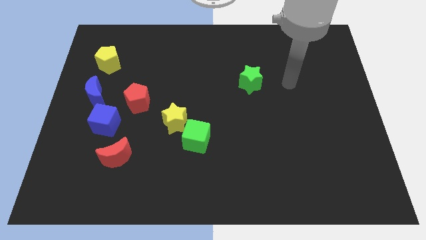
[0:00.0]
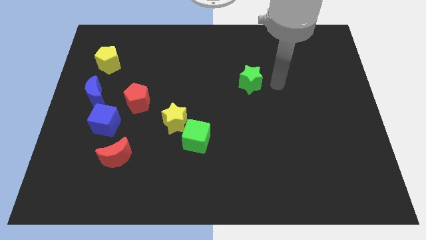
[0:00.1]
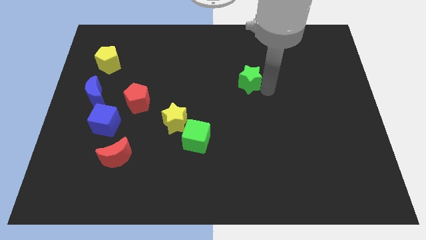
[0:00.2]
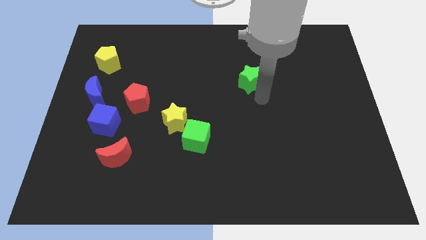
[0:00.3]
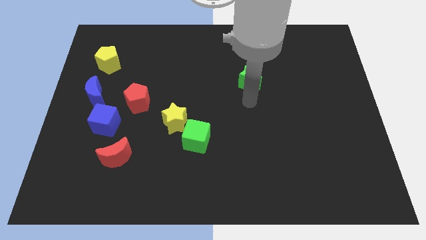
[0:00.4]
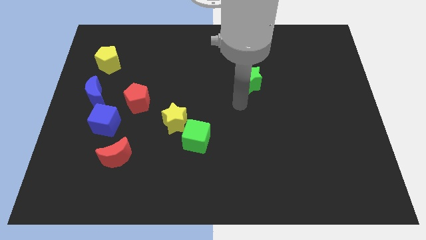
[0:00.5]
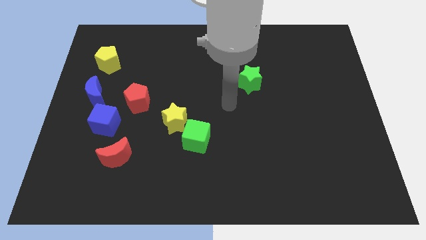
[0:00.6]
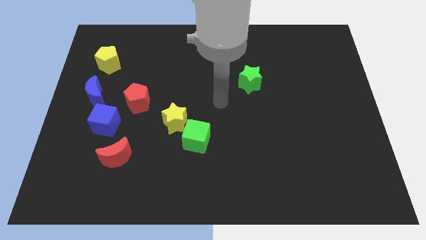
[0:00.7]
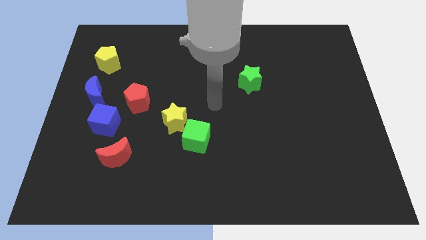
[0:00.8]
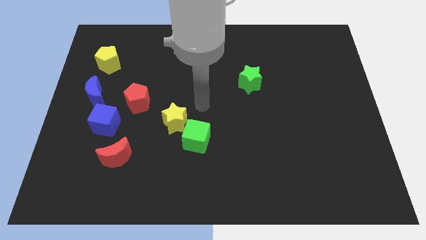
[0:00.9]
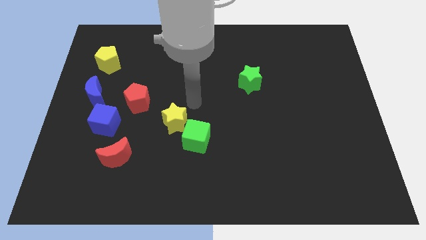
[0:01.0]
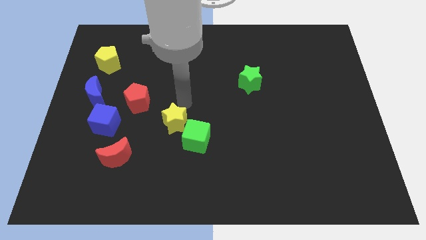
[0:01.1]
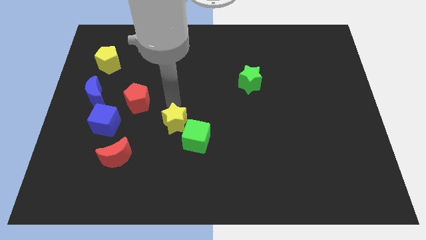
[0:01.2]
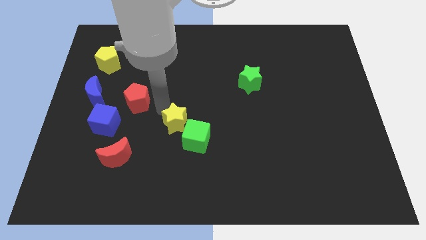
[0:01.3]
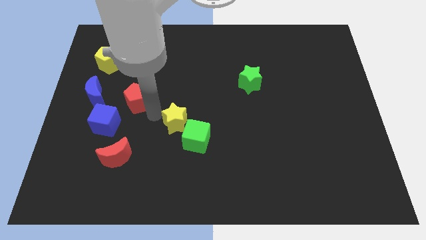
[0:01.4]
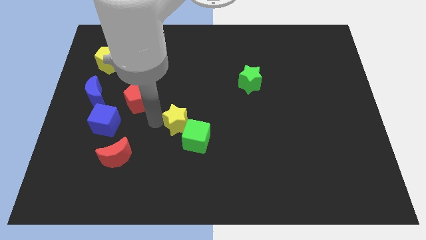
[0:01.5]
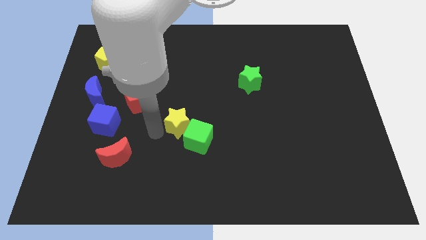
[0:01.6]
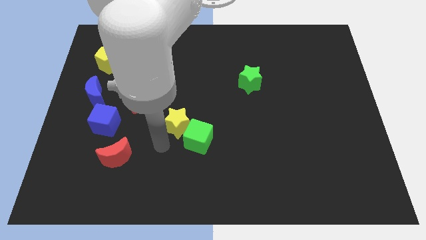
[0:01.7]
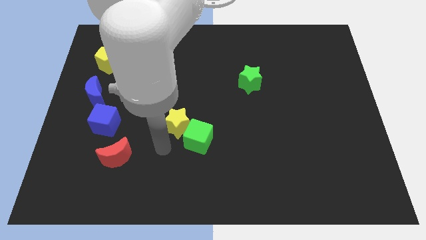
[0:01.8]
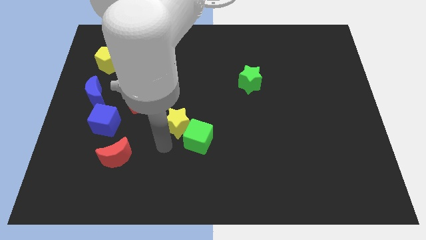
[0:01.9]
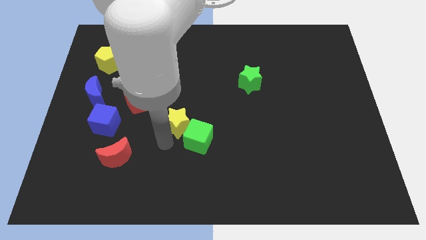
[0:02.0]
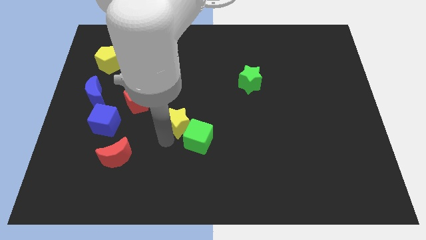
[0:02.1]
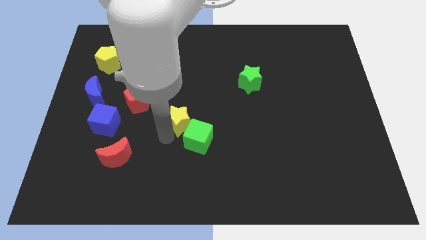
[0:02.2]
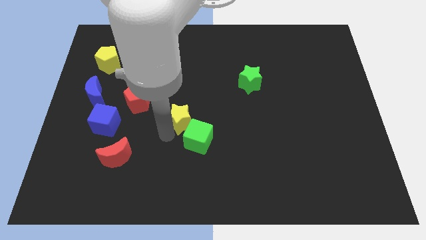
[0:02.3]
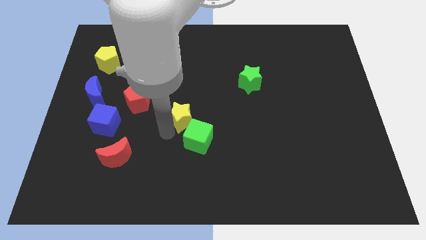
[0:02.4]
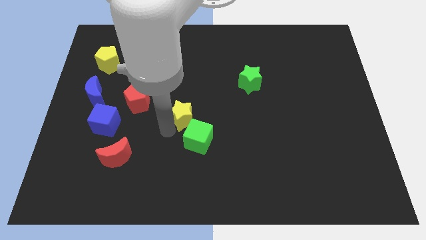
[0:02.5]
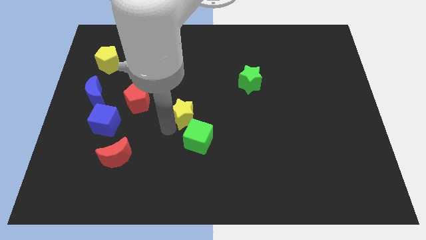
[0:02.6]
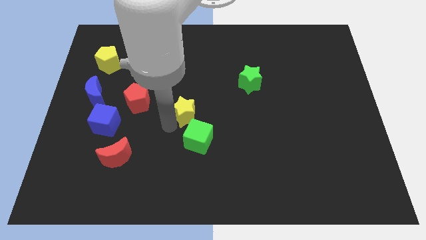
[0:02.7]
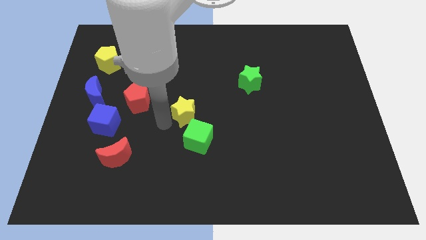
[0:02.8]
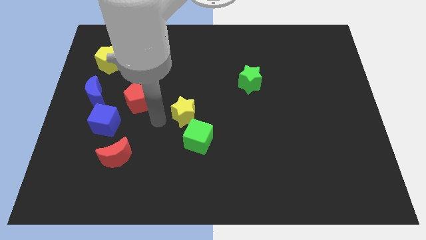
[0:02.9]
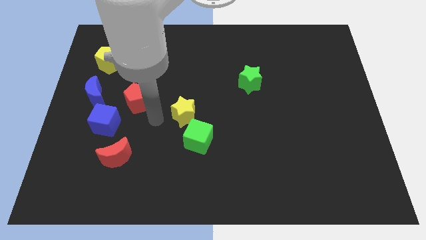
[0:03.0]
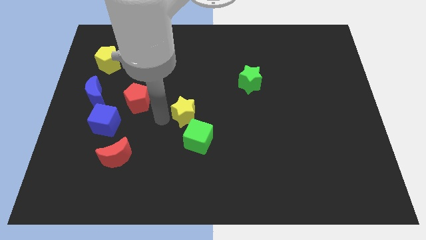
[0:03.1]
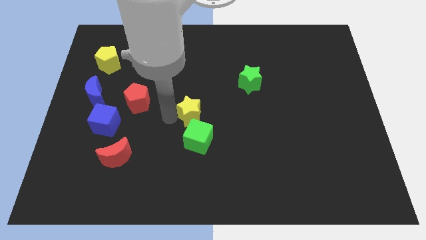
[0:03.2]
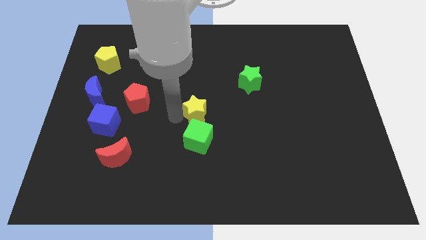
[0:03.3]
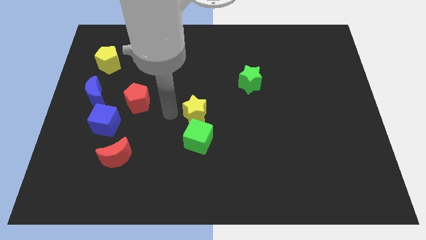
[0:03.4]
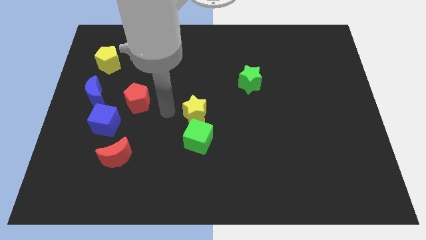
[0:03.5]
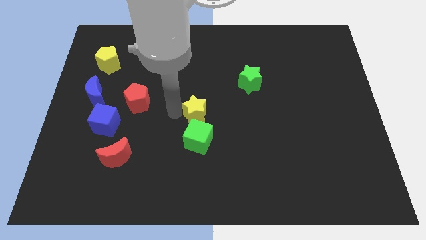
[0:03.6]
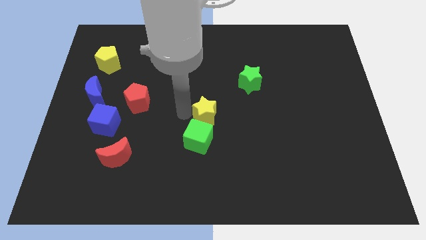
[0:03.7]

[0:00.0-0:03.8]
push the yellow star somewhat right

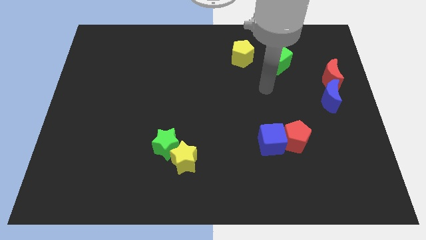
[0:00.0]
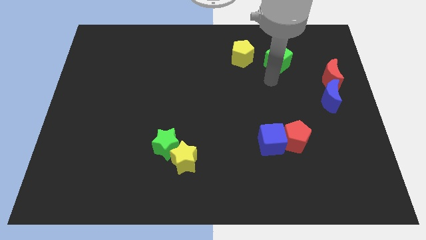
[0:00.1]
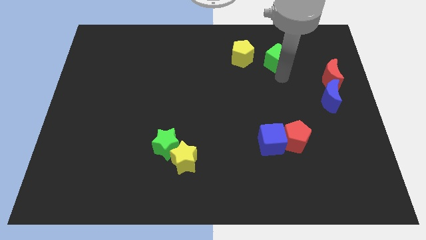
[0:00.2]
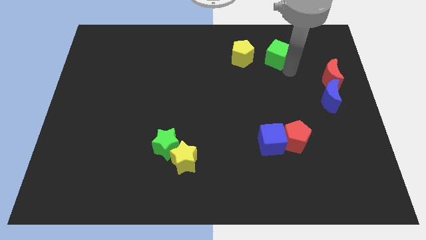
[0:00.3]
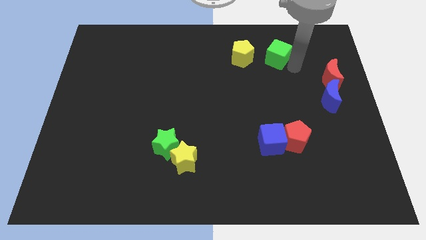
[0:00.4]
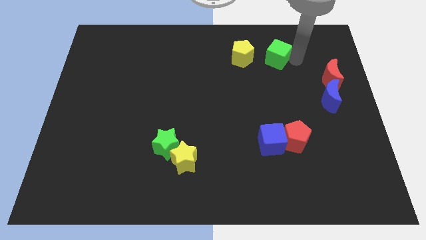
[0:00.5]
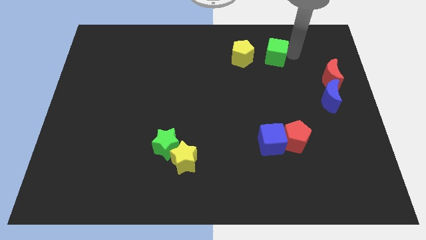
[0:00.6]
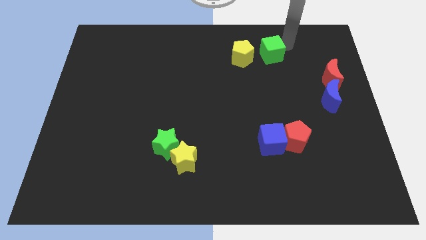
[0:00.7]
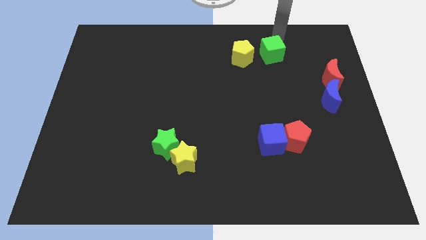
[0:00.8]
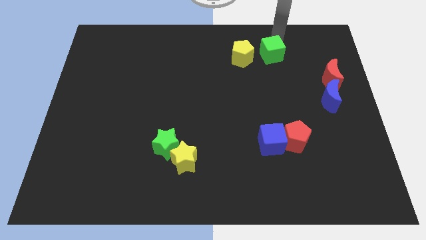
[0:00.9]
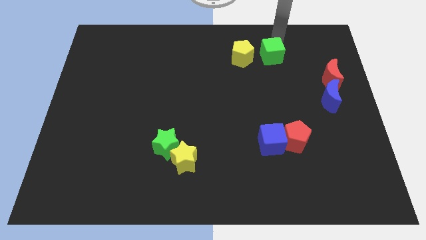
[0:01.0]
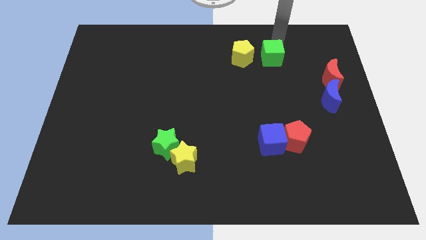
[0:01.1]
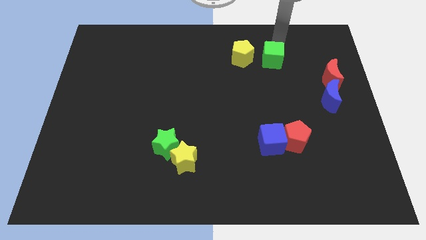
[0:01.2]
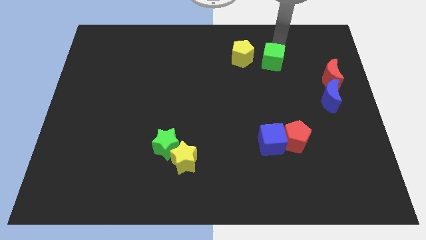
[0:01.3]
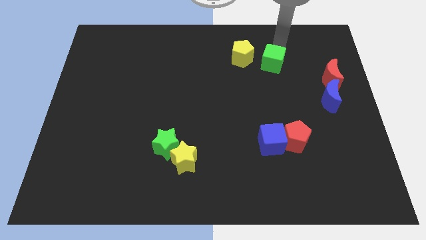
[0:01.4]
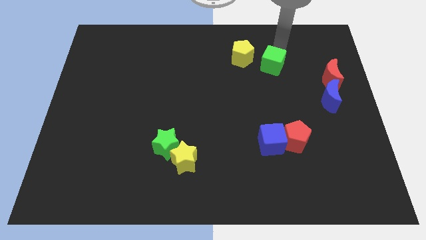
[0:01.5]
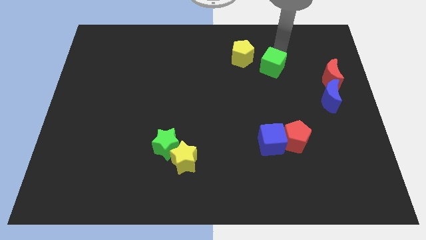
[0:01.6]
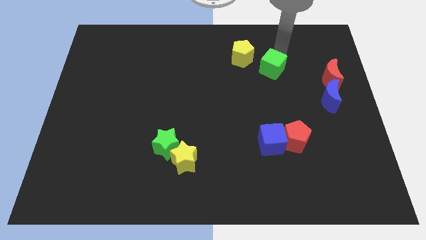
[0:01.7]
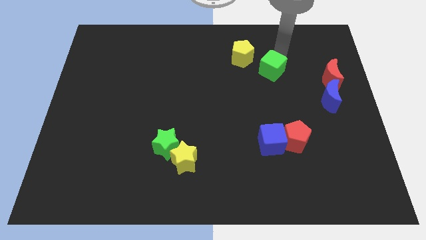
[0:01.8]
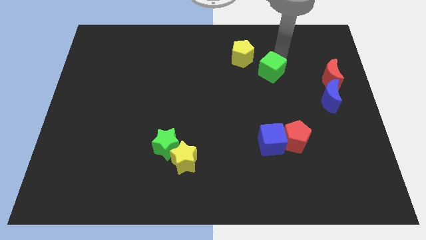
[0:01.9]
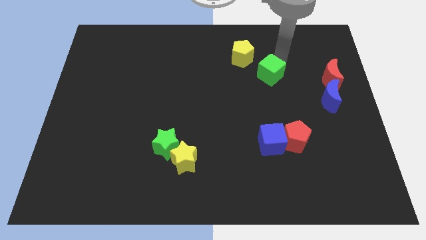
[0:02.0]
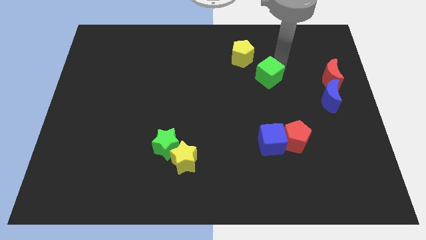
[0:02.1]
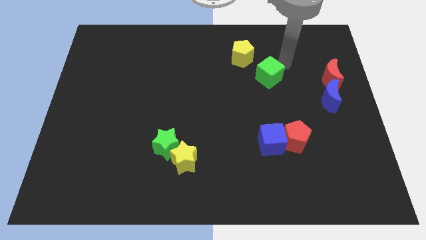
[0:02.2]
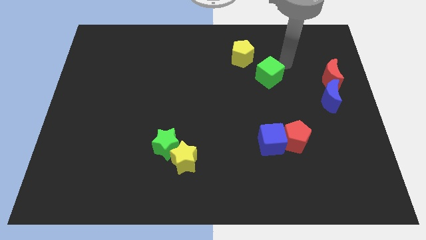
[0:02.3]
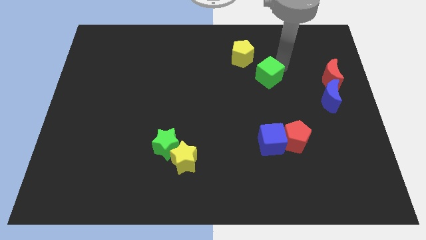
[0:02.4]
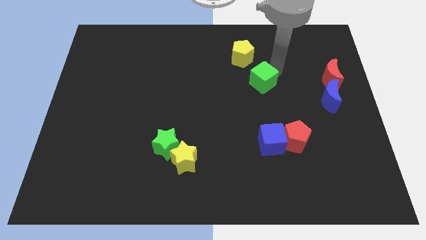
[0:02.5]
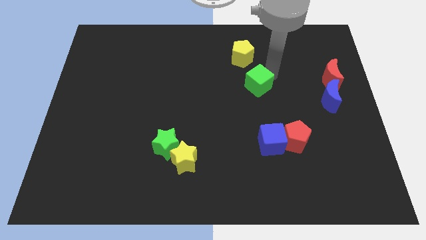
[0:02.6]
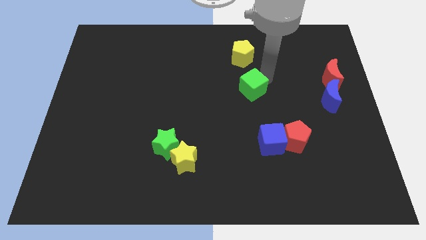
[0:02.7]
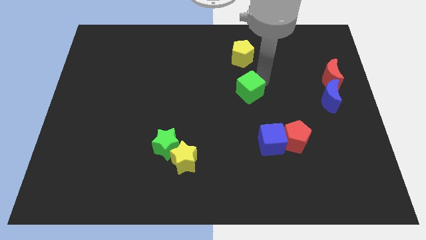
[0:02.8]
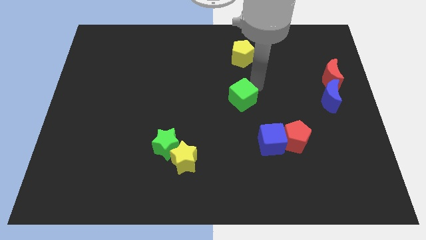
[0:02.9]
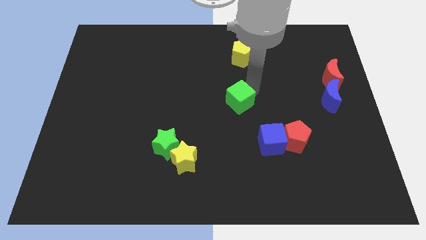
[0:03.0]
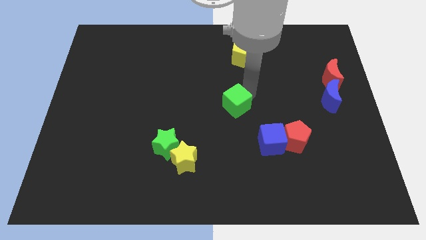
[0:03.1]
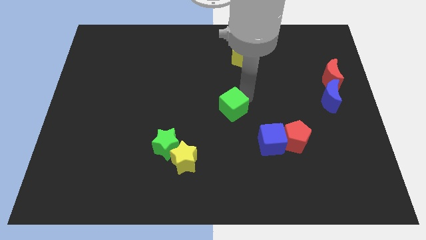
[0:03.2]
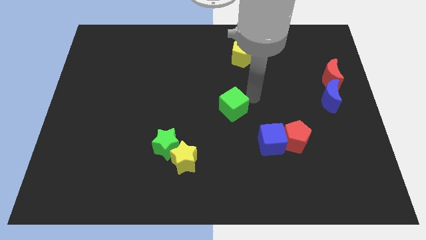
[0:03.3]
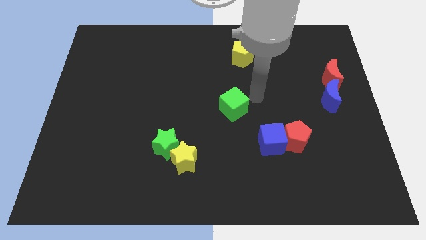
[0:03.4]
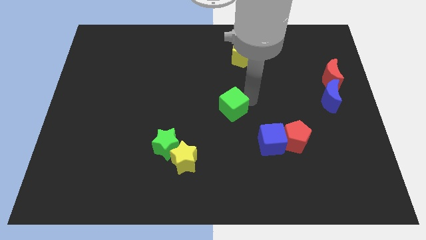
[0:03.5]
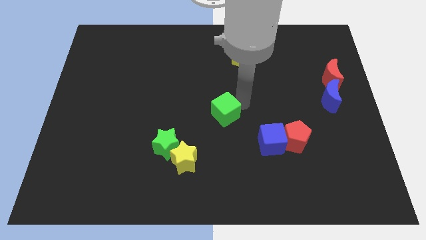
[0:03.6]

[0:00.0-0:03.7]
slide the green cube diagonally down and left

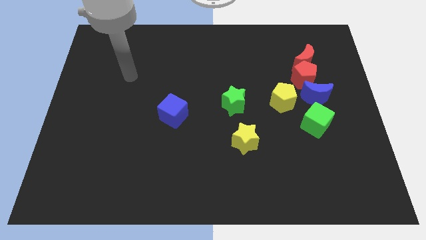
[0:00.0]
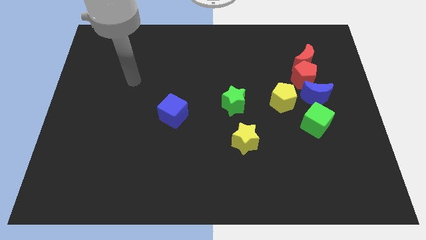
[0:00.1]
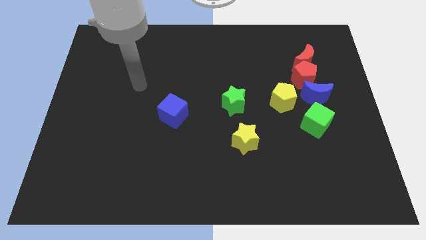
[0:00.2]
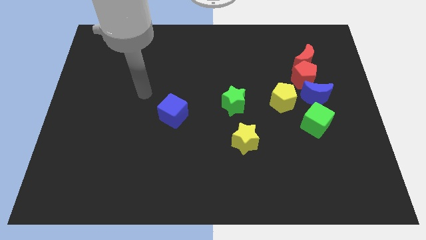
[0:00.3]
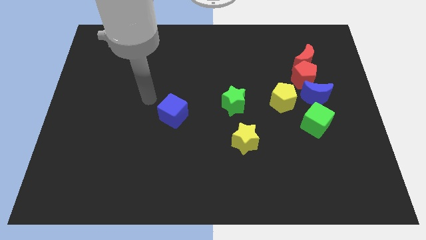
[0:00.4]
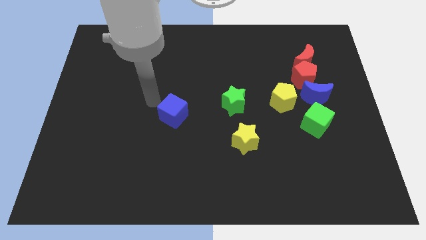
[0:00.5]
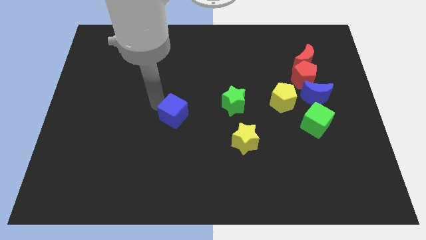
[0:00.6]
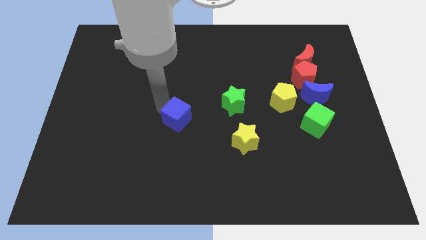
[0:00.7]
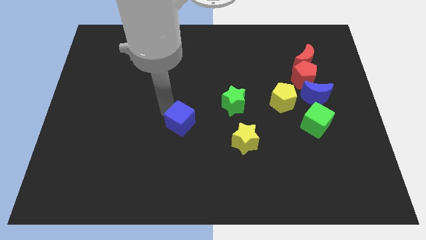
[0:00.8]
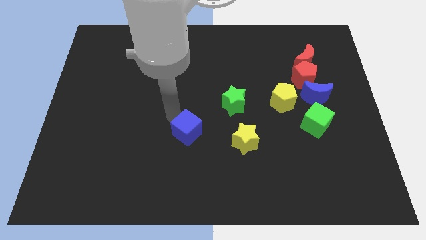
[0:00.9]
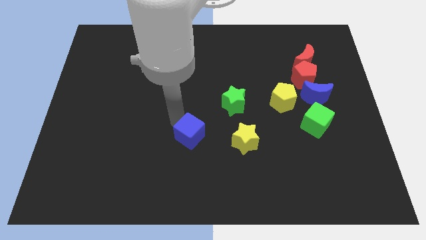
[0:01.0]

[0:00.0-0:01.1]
slightly push the blue cube downwards and to the right diagonally
